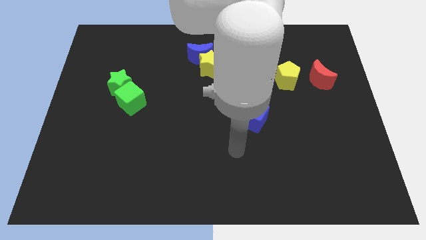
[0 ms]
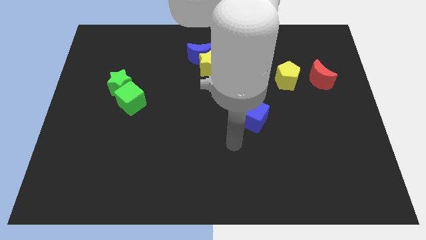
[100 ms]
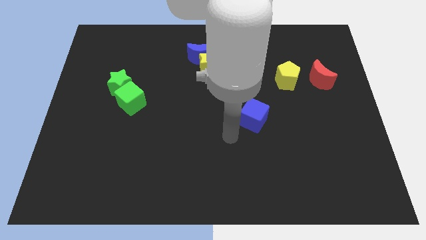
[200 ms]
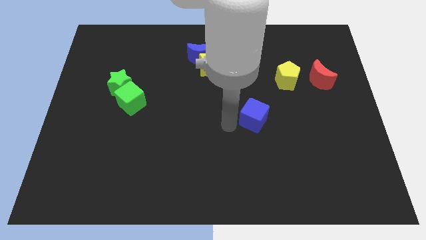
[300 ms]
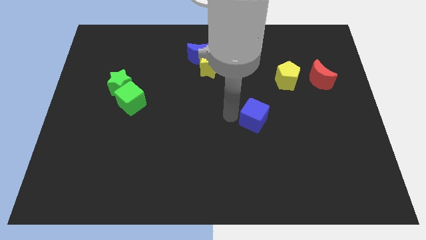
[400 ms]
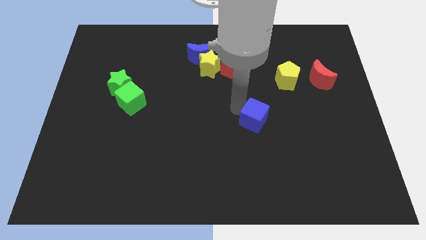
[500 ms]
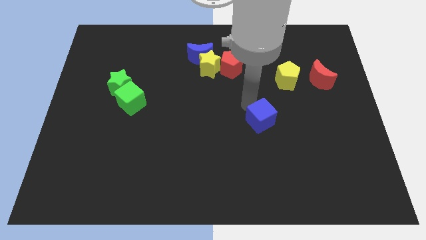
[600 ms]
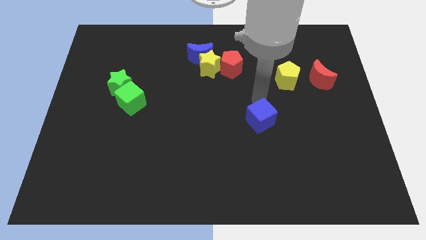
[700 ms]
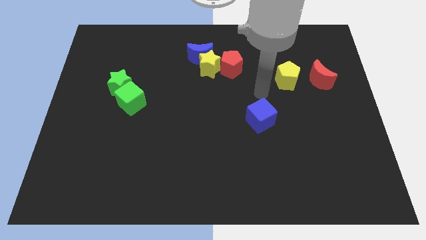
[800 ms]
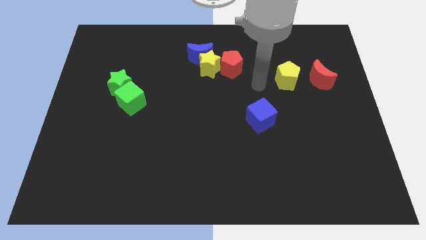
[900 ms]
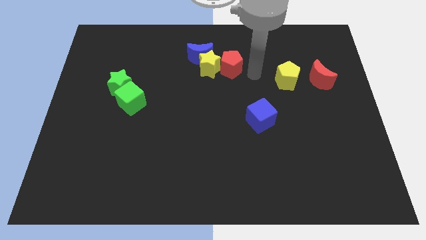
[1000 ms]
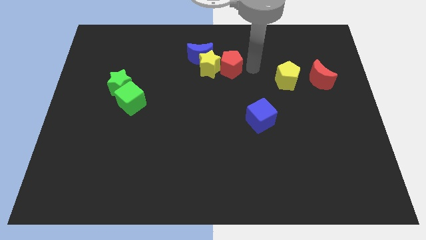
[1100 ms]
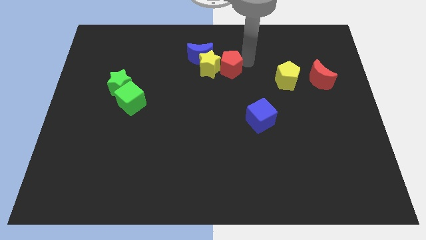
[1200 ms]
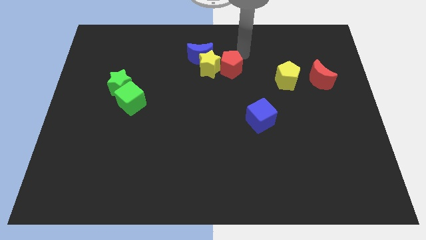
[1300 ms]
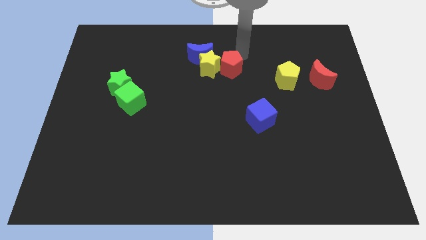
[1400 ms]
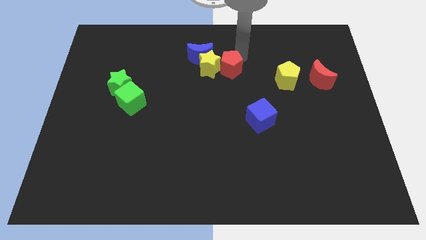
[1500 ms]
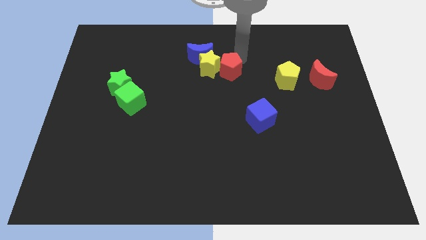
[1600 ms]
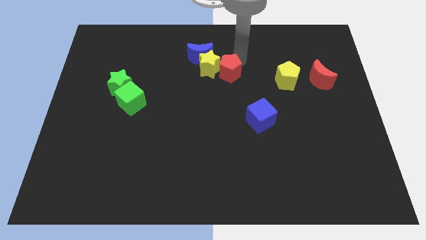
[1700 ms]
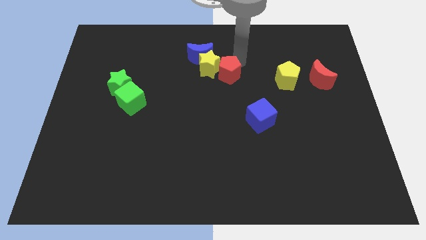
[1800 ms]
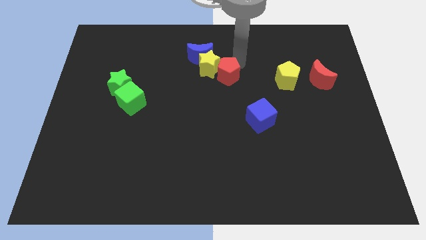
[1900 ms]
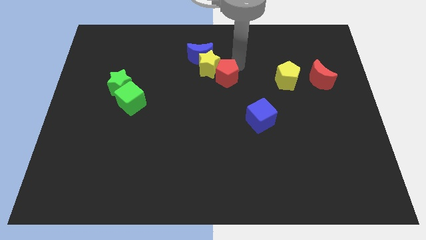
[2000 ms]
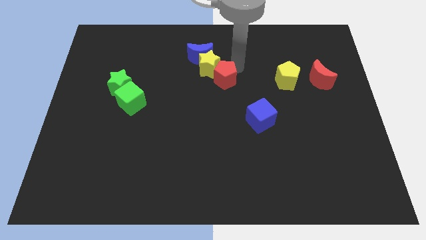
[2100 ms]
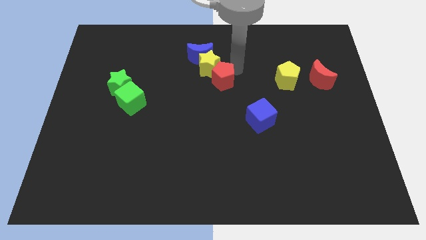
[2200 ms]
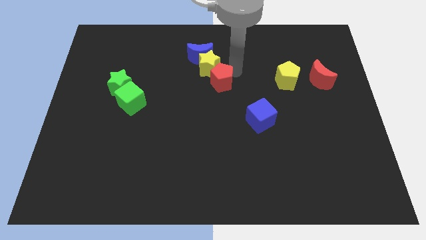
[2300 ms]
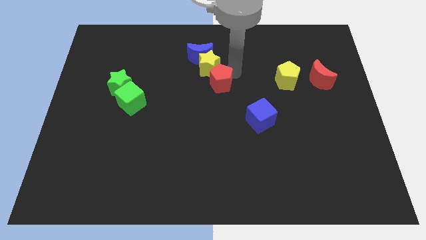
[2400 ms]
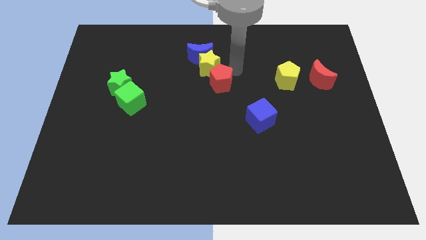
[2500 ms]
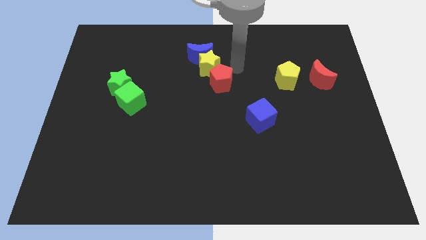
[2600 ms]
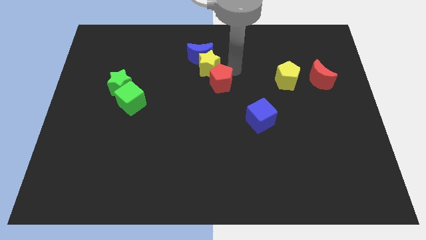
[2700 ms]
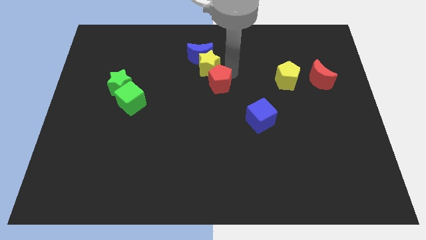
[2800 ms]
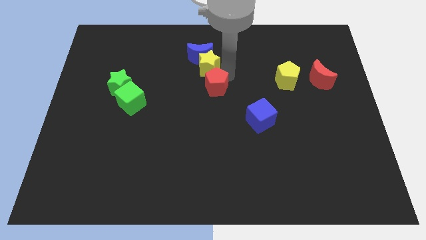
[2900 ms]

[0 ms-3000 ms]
push the red pentagon slightly diagonally down and to the left

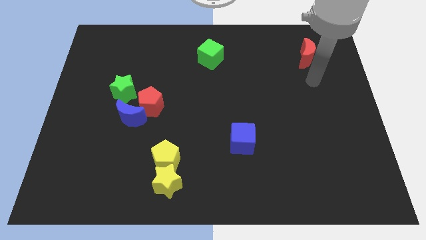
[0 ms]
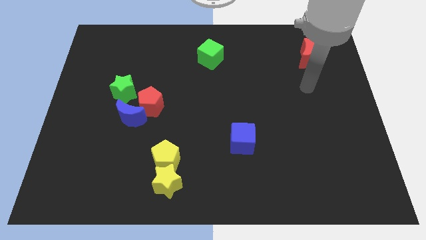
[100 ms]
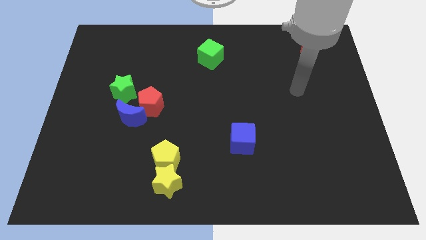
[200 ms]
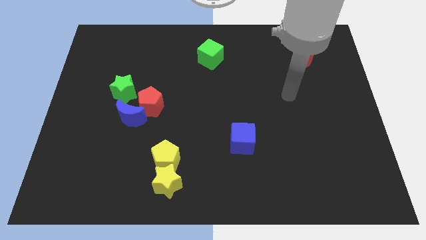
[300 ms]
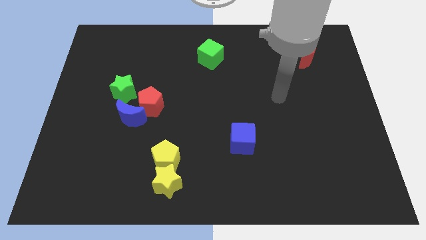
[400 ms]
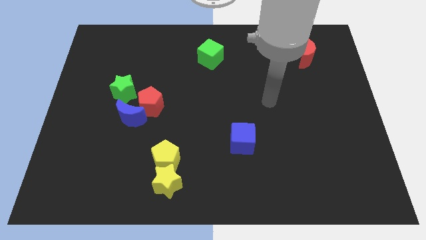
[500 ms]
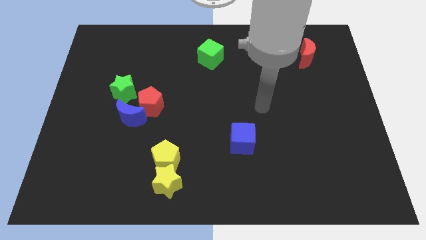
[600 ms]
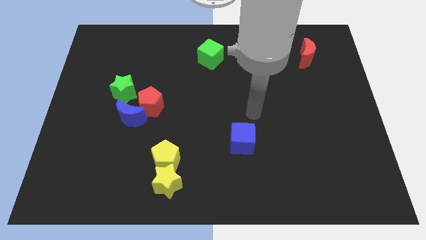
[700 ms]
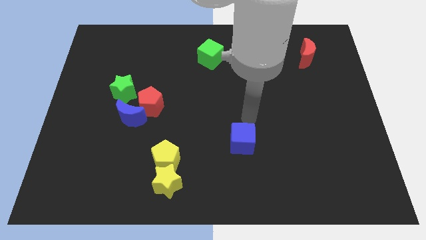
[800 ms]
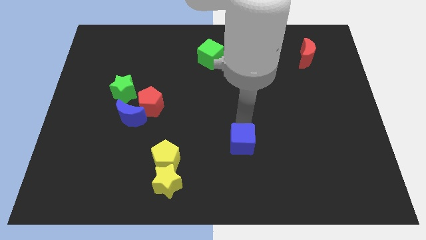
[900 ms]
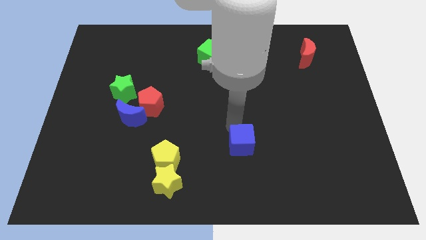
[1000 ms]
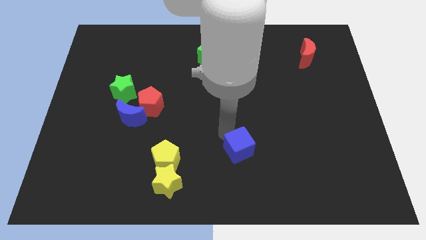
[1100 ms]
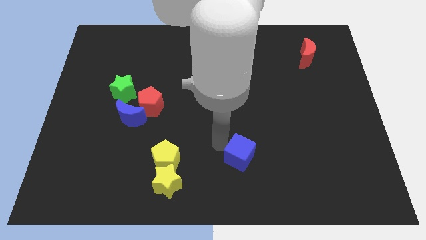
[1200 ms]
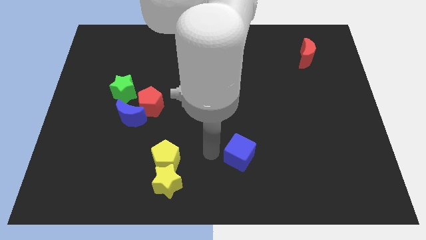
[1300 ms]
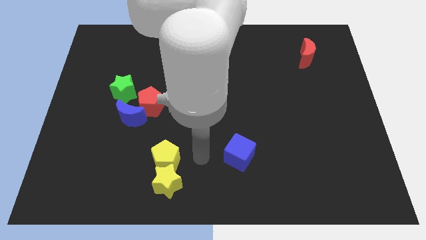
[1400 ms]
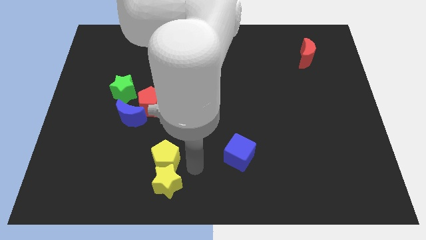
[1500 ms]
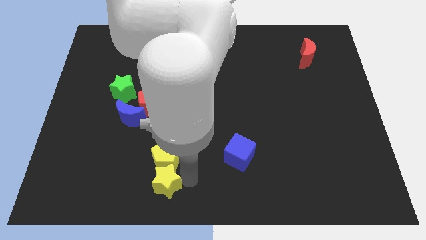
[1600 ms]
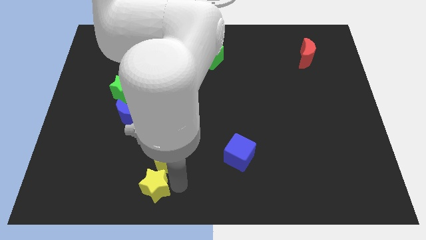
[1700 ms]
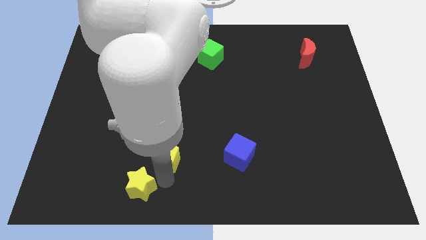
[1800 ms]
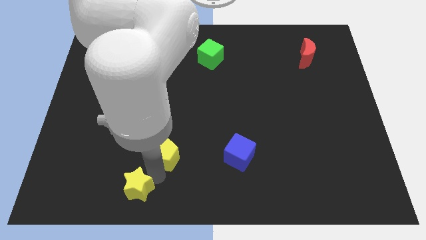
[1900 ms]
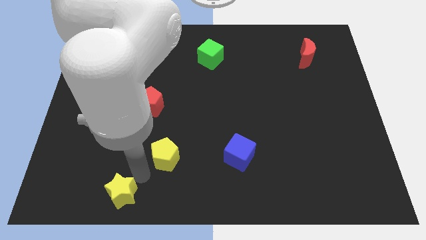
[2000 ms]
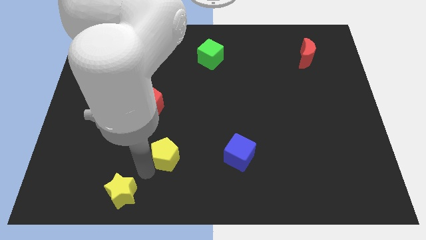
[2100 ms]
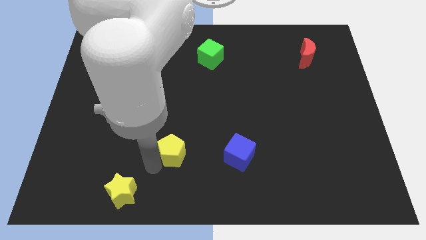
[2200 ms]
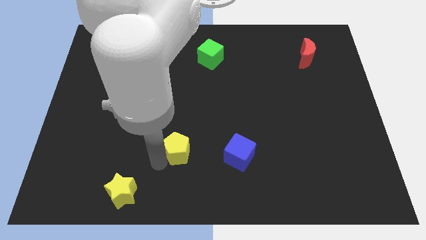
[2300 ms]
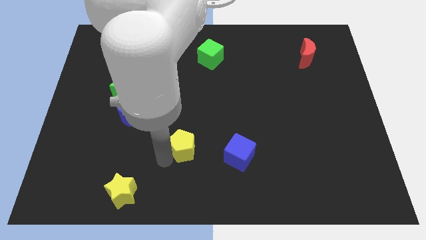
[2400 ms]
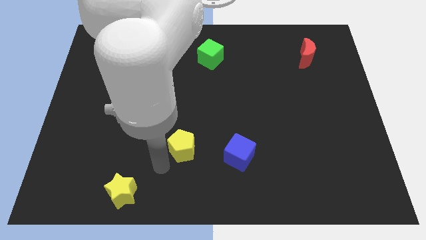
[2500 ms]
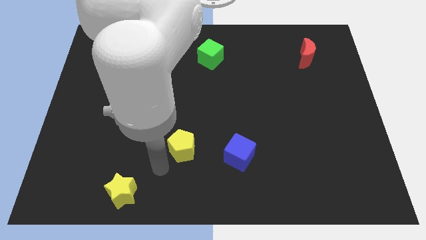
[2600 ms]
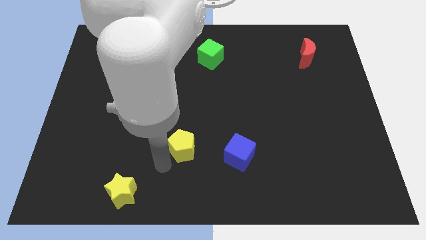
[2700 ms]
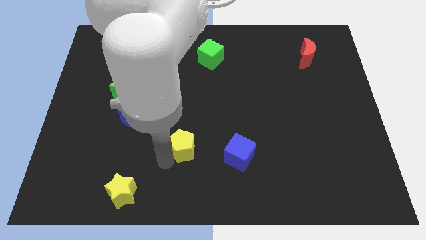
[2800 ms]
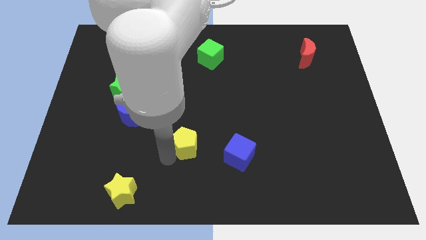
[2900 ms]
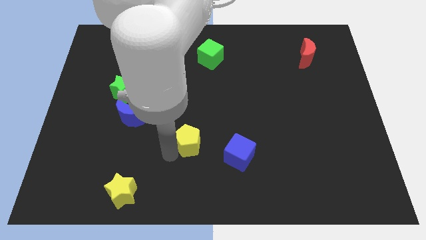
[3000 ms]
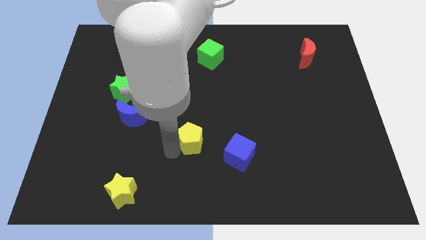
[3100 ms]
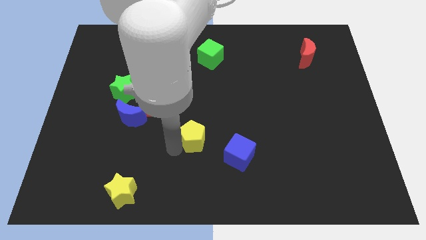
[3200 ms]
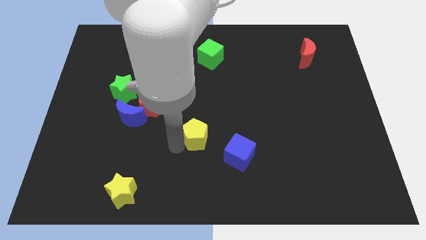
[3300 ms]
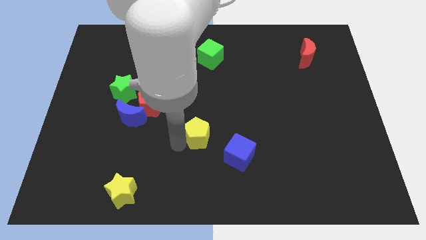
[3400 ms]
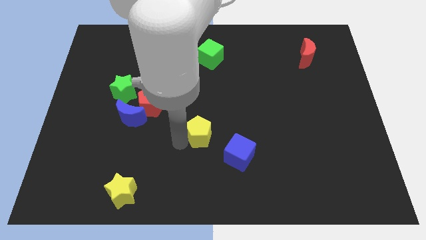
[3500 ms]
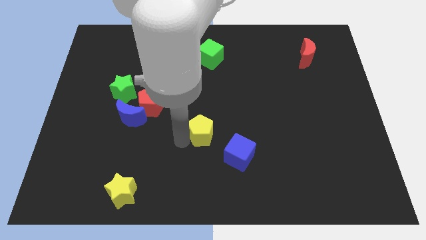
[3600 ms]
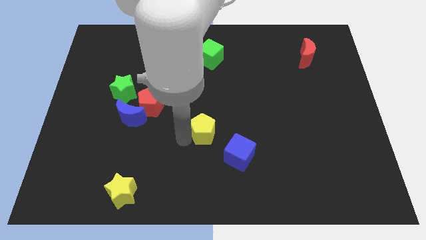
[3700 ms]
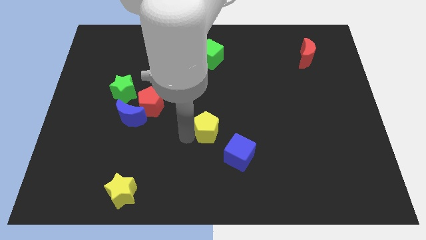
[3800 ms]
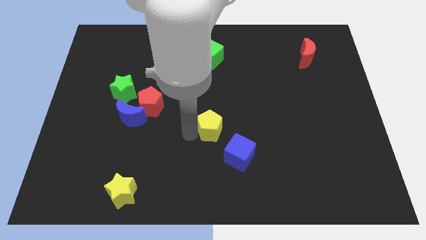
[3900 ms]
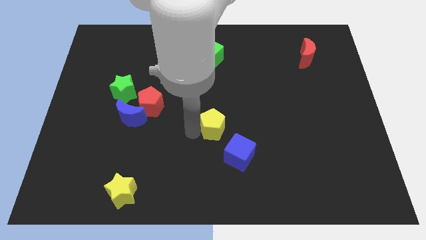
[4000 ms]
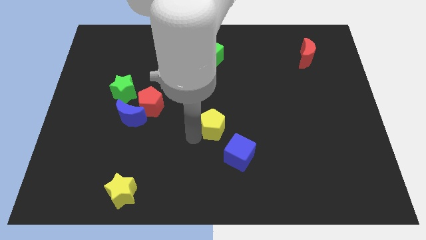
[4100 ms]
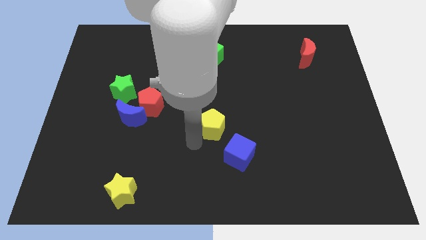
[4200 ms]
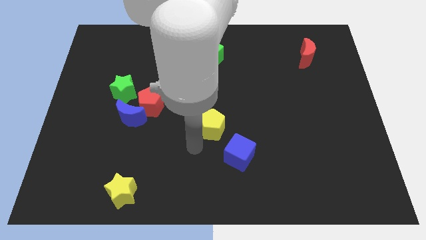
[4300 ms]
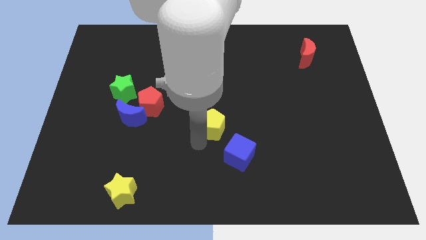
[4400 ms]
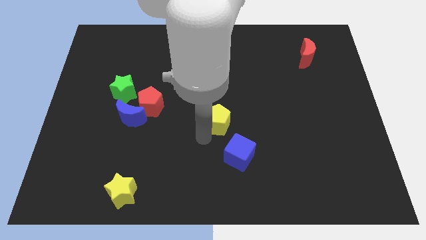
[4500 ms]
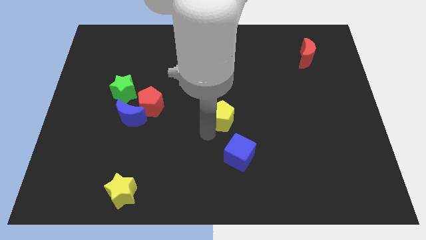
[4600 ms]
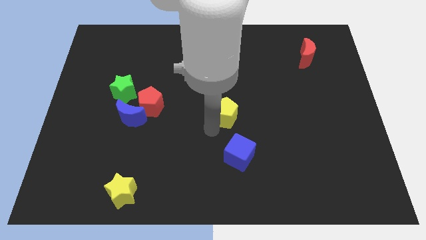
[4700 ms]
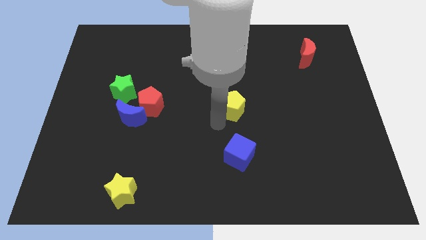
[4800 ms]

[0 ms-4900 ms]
push the yellow pentagon up and then right

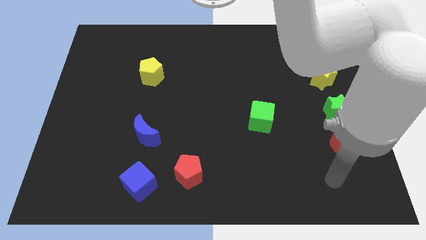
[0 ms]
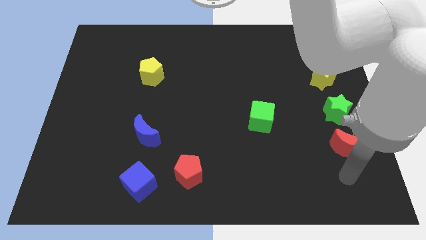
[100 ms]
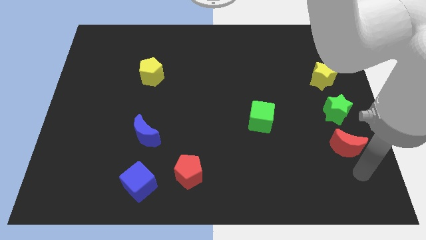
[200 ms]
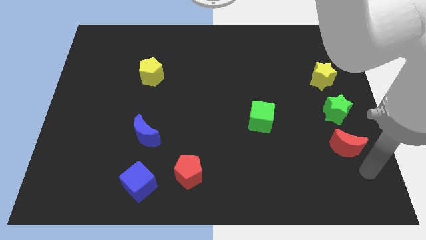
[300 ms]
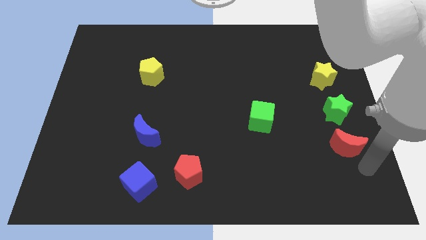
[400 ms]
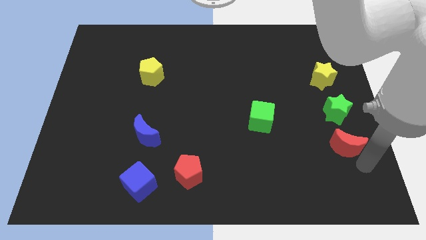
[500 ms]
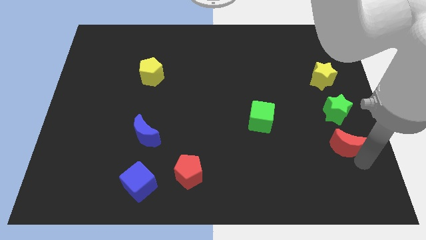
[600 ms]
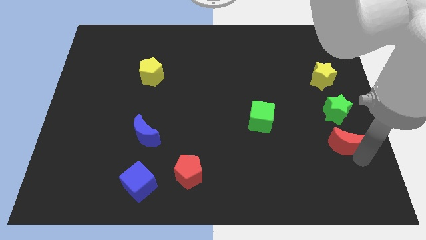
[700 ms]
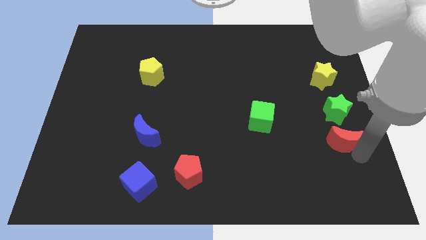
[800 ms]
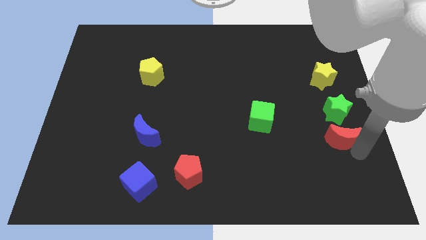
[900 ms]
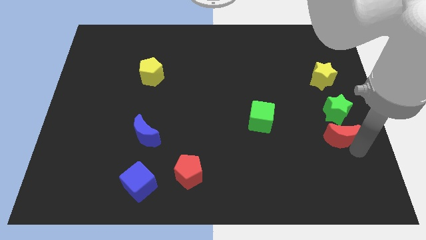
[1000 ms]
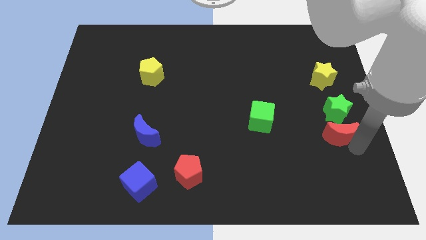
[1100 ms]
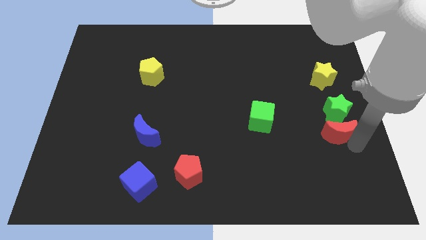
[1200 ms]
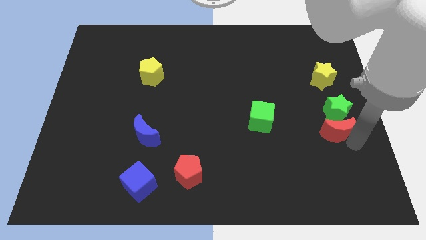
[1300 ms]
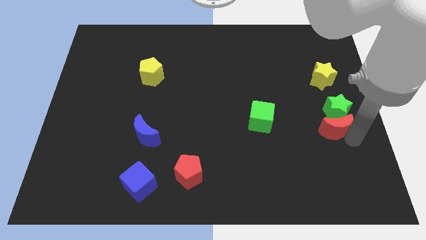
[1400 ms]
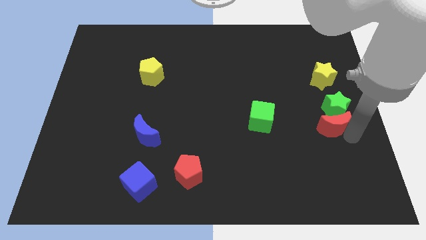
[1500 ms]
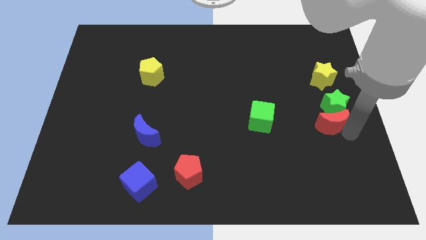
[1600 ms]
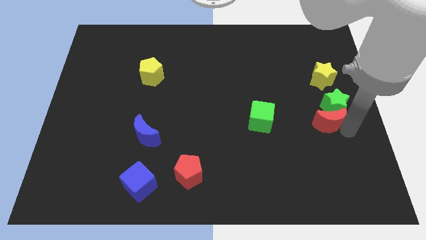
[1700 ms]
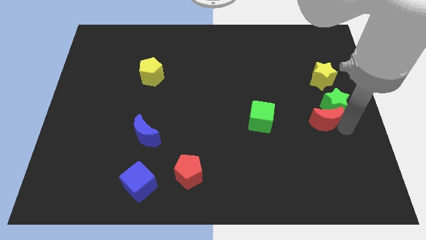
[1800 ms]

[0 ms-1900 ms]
push the red moon upwards and to the left somewhat
